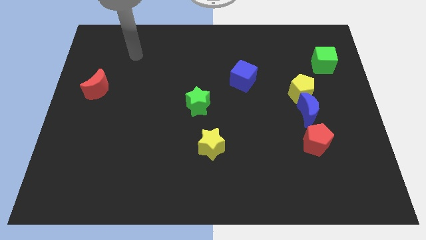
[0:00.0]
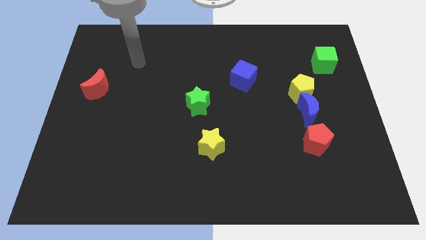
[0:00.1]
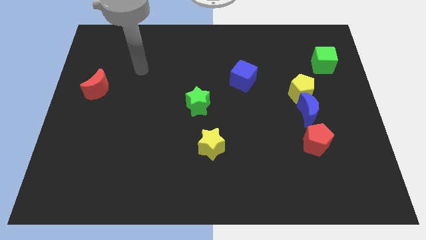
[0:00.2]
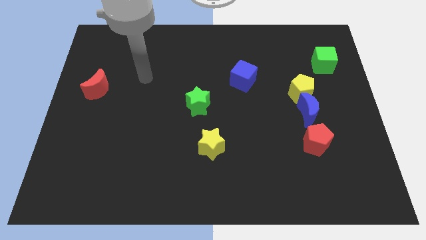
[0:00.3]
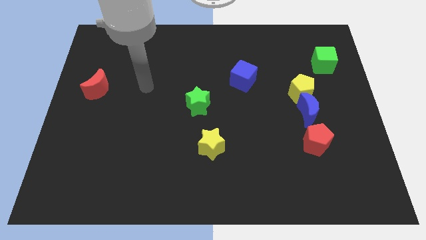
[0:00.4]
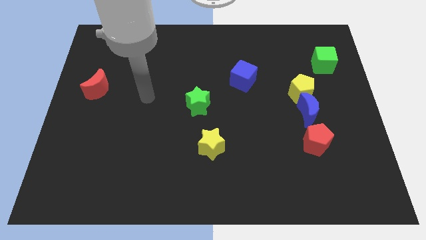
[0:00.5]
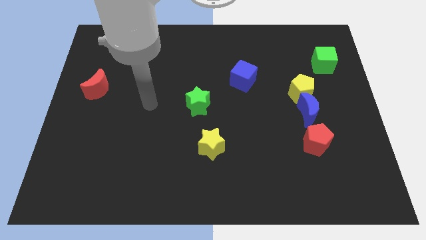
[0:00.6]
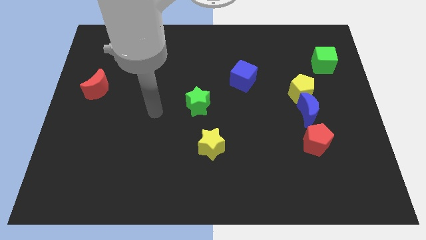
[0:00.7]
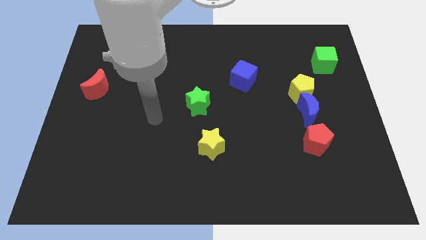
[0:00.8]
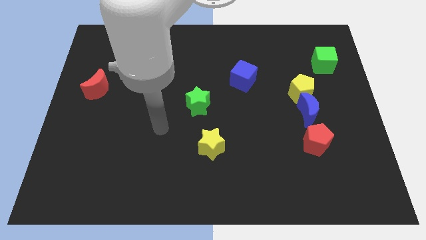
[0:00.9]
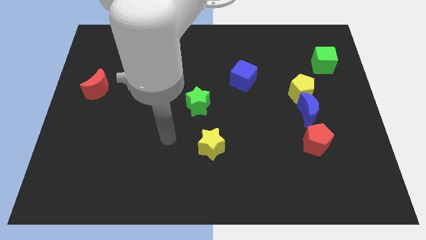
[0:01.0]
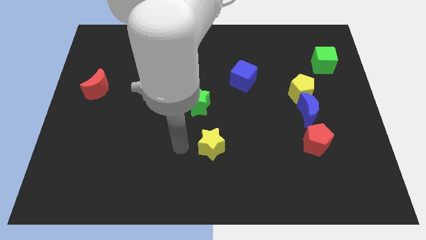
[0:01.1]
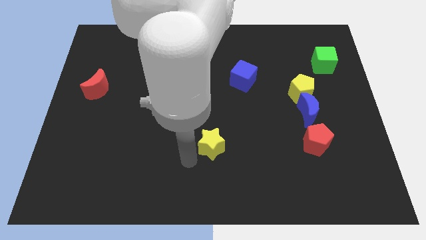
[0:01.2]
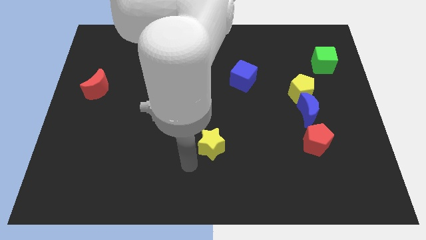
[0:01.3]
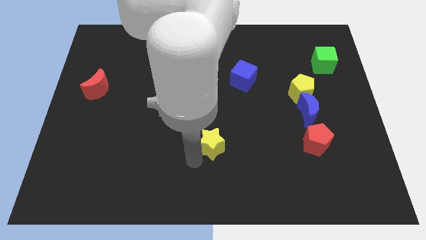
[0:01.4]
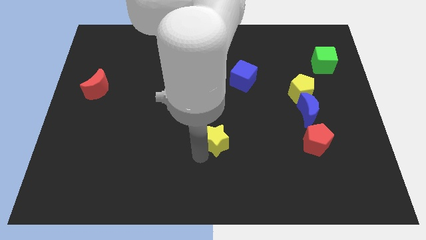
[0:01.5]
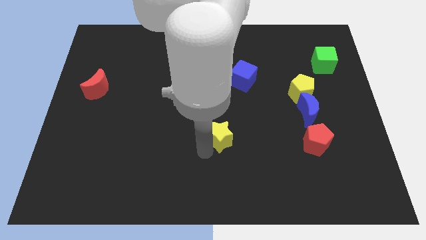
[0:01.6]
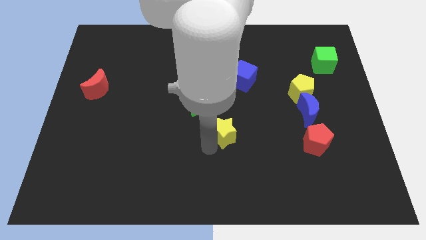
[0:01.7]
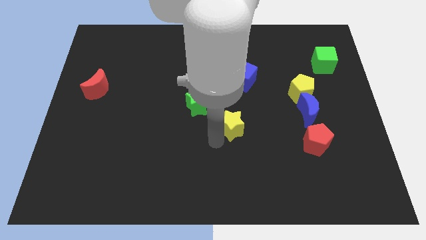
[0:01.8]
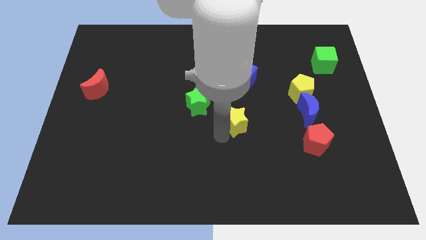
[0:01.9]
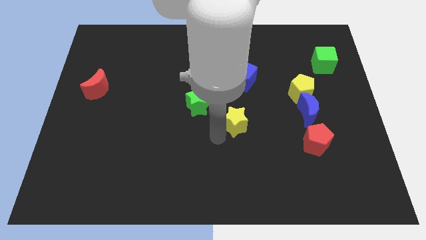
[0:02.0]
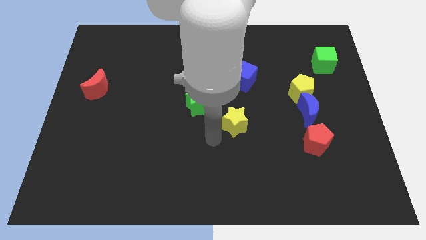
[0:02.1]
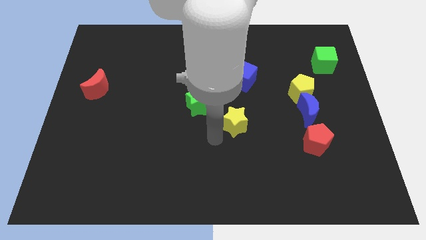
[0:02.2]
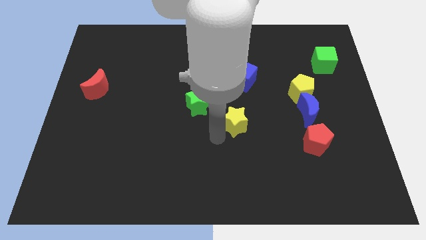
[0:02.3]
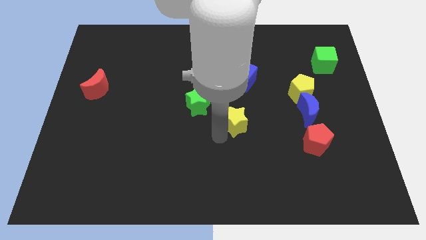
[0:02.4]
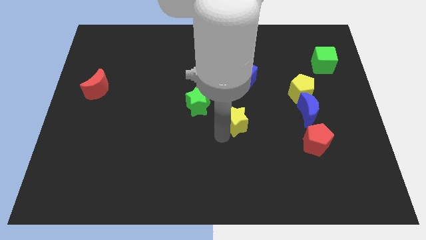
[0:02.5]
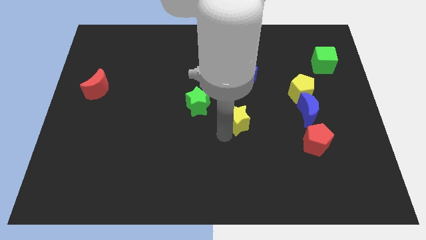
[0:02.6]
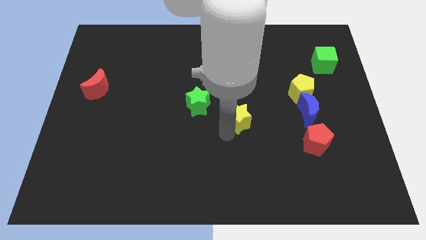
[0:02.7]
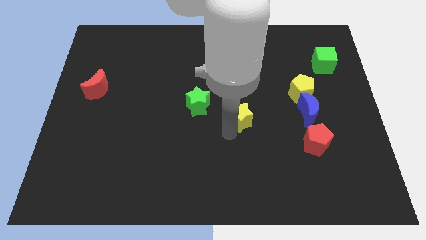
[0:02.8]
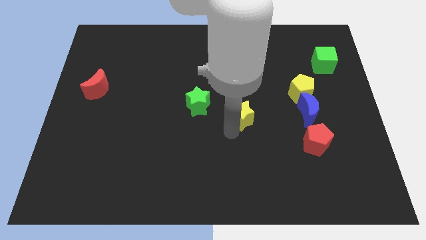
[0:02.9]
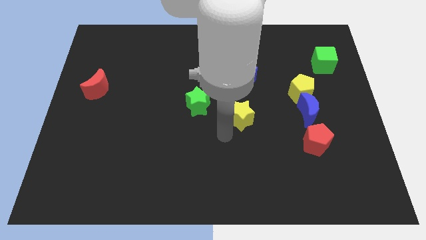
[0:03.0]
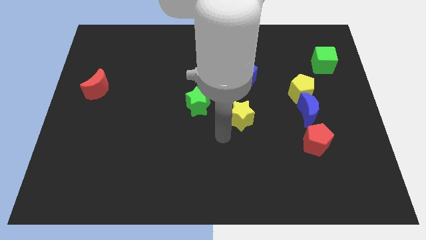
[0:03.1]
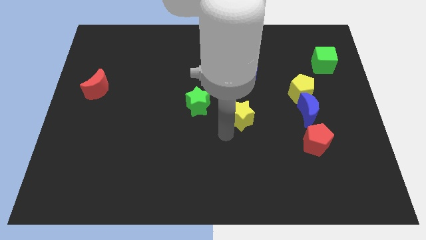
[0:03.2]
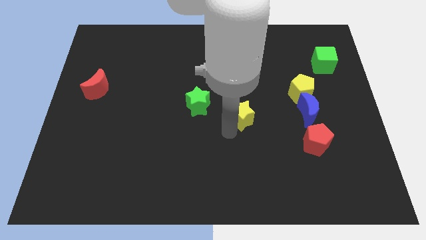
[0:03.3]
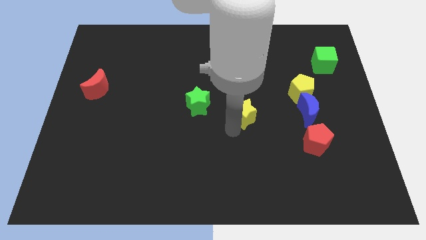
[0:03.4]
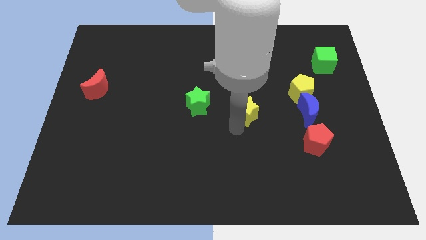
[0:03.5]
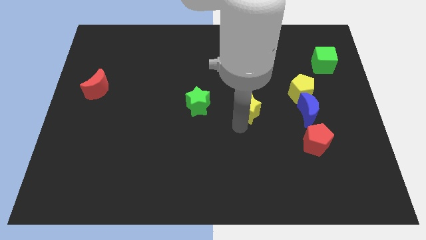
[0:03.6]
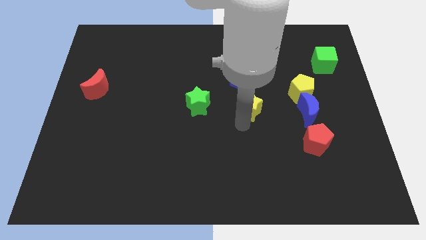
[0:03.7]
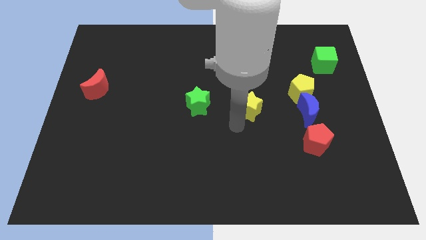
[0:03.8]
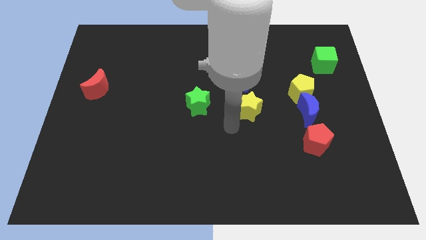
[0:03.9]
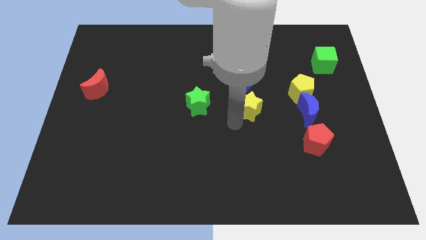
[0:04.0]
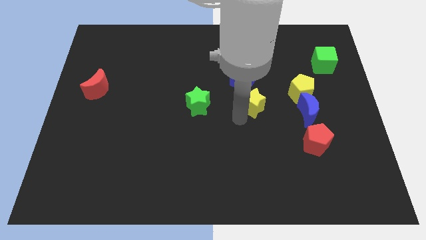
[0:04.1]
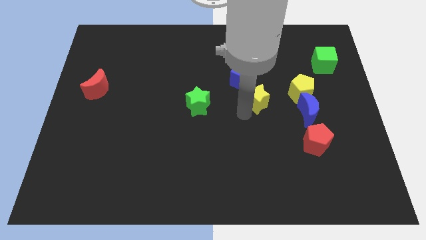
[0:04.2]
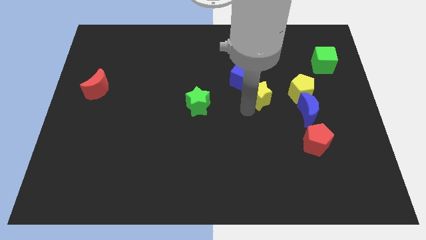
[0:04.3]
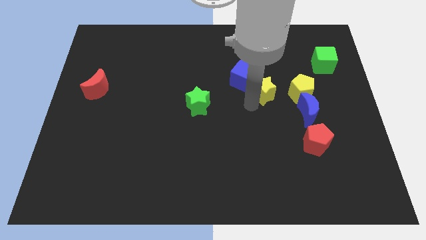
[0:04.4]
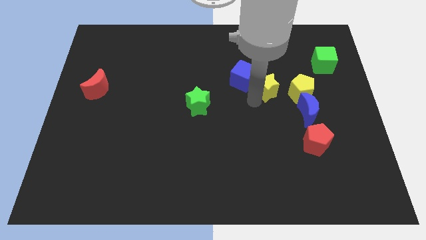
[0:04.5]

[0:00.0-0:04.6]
move the yellow star diagonally upwards and right

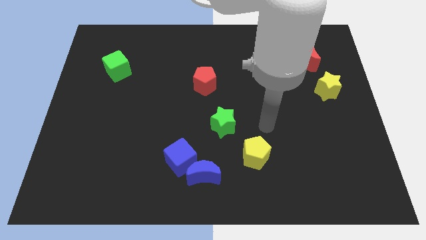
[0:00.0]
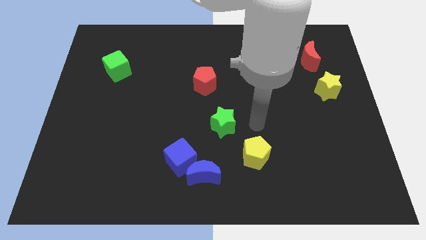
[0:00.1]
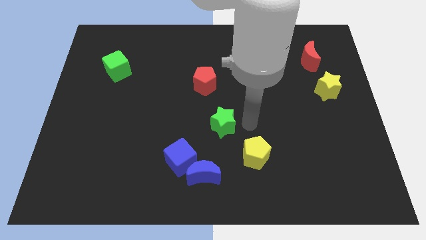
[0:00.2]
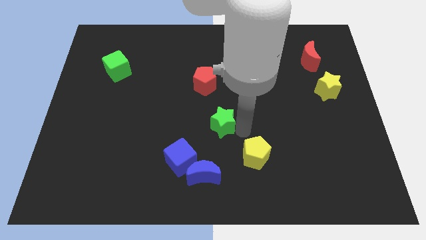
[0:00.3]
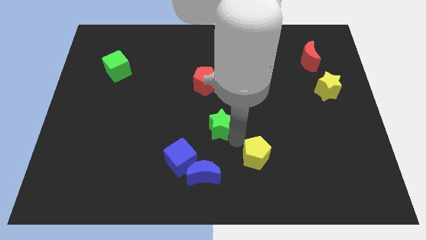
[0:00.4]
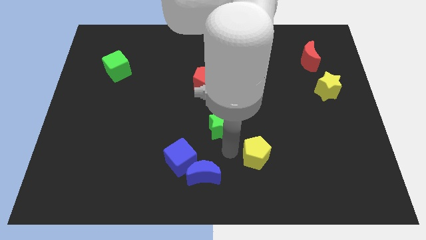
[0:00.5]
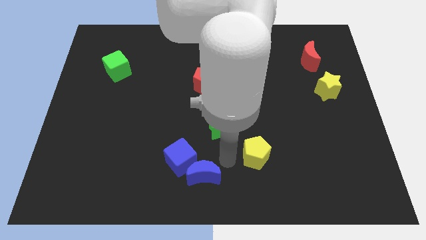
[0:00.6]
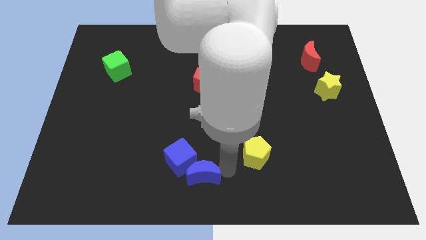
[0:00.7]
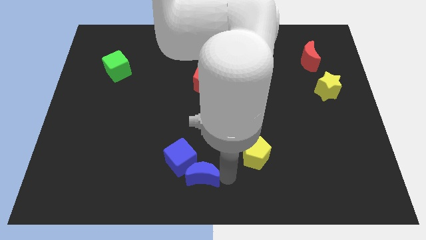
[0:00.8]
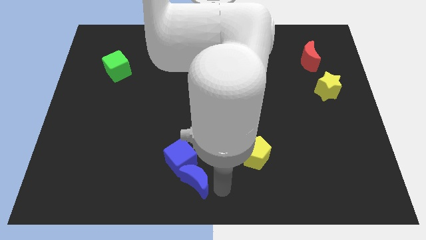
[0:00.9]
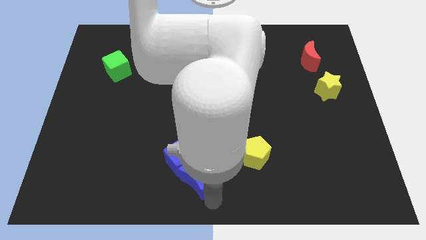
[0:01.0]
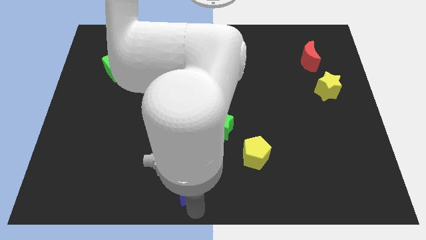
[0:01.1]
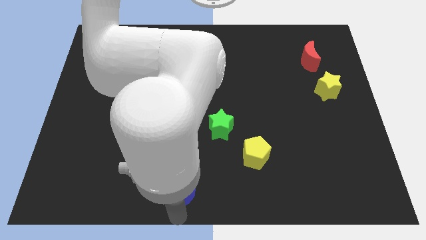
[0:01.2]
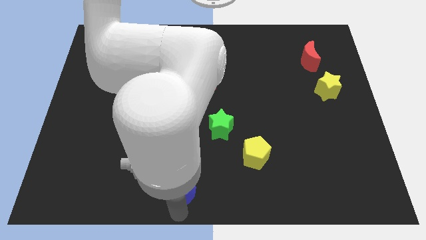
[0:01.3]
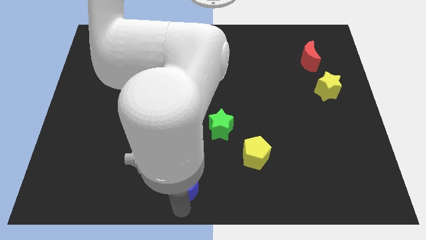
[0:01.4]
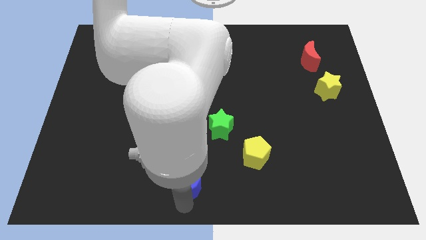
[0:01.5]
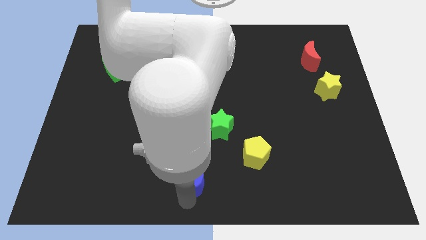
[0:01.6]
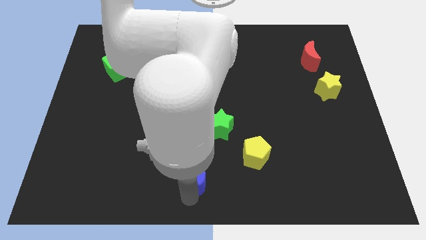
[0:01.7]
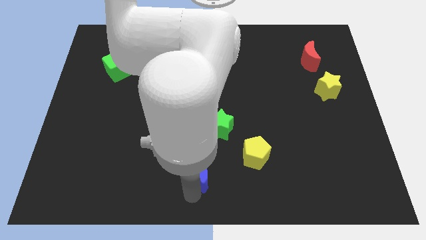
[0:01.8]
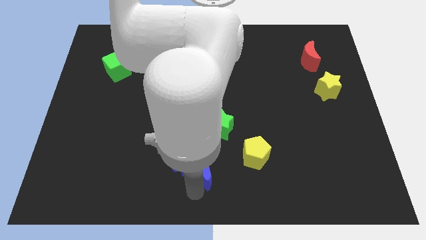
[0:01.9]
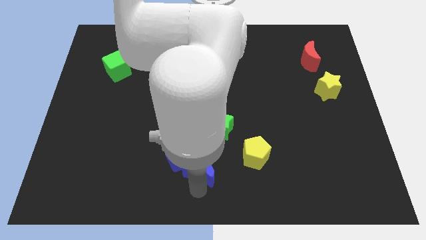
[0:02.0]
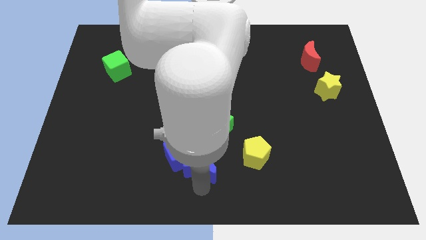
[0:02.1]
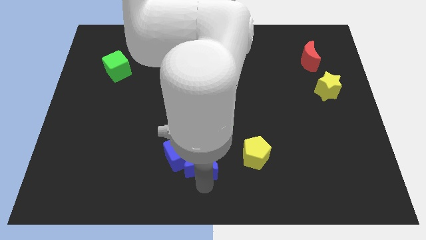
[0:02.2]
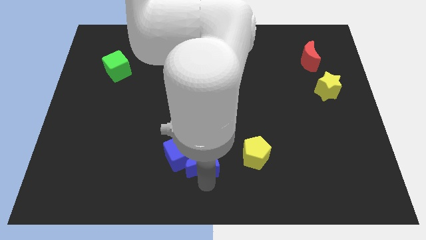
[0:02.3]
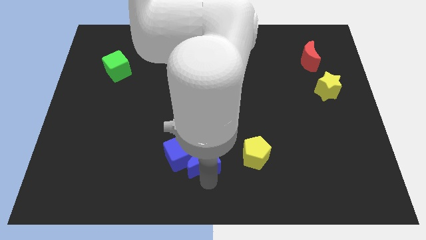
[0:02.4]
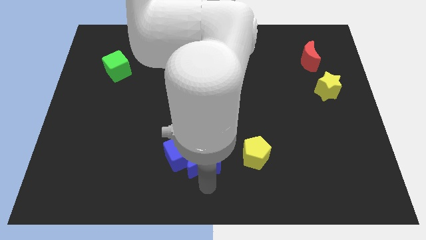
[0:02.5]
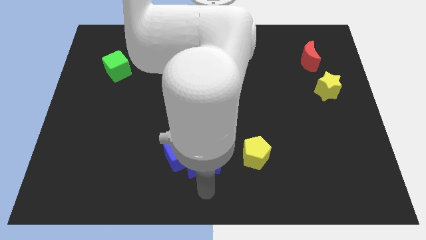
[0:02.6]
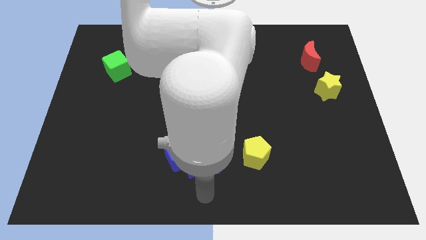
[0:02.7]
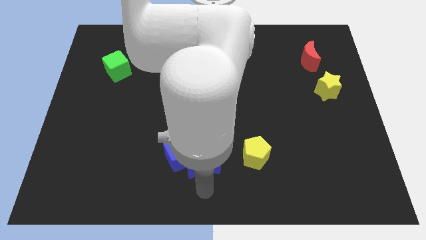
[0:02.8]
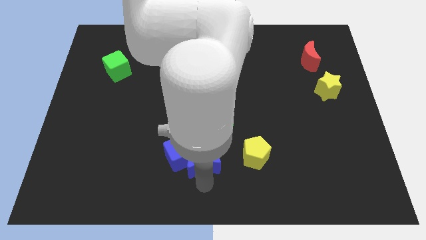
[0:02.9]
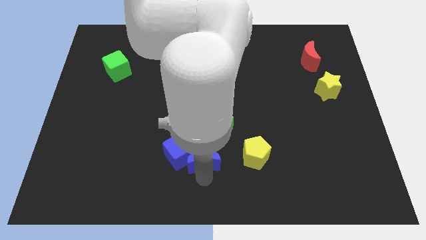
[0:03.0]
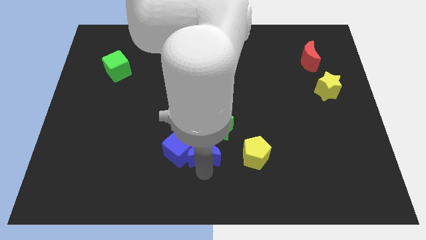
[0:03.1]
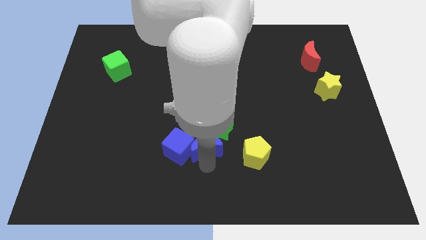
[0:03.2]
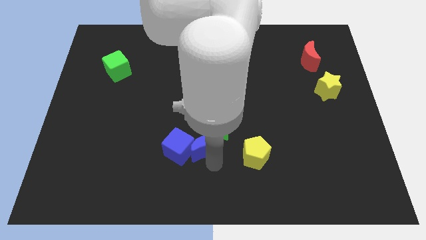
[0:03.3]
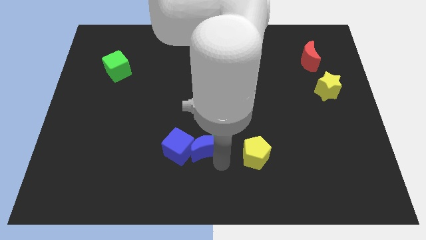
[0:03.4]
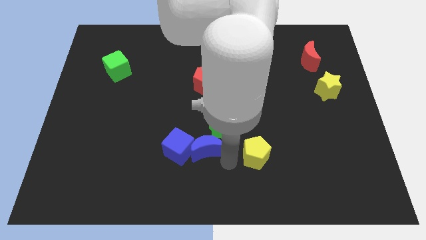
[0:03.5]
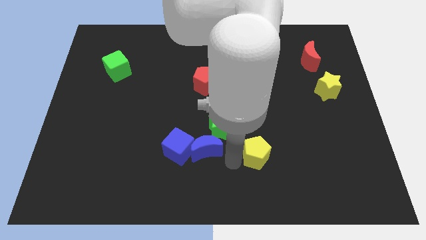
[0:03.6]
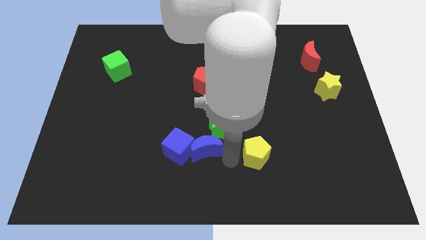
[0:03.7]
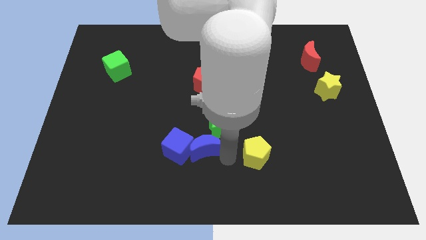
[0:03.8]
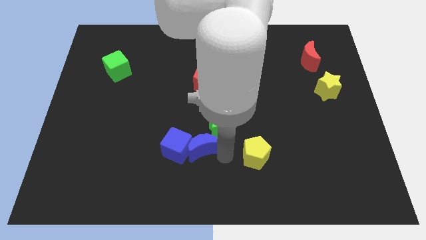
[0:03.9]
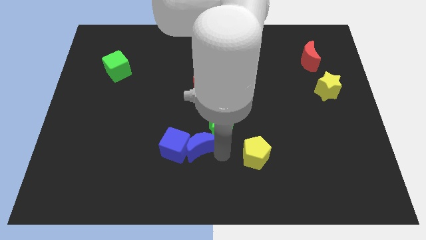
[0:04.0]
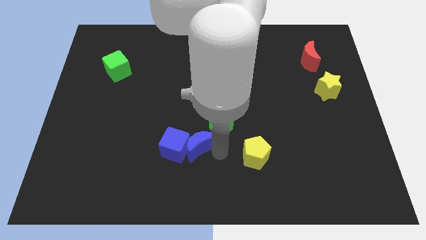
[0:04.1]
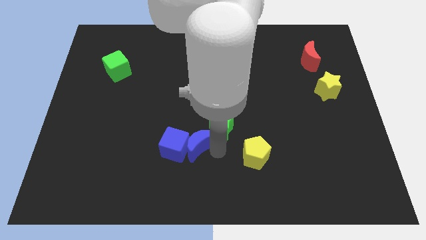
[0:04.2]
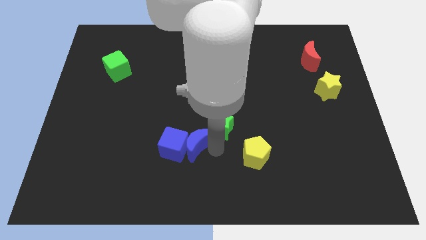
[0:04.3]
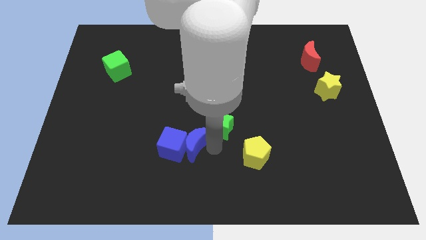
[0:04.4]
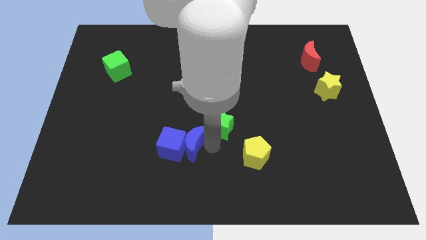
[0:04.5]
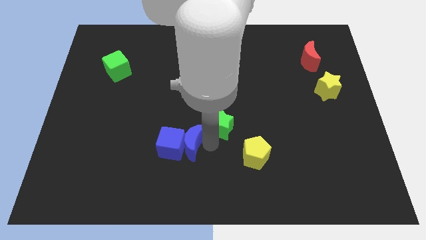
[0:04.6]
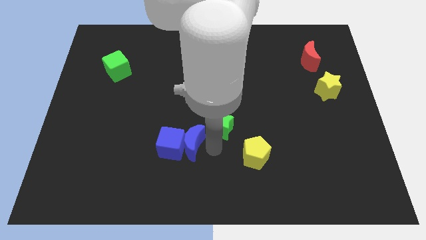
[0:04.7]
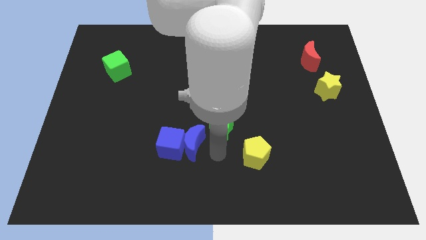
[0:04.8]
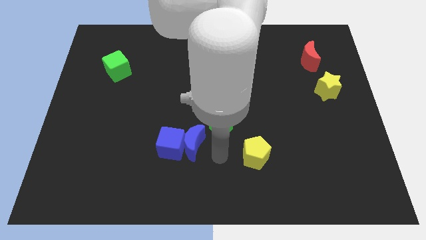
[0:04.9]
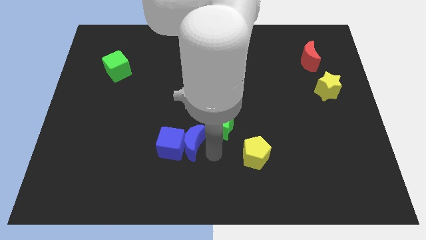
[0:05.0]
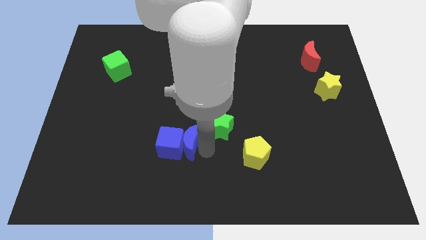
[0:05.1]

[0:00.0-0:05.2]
move the blue moon a little upwards and to the left
